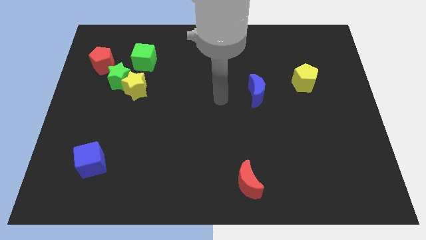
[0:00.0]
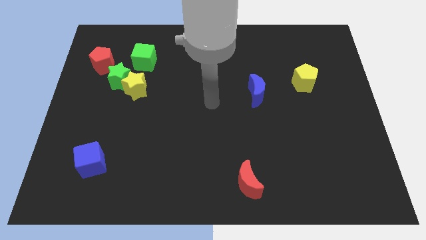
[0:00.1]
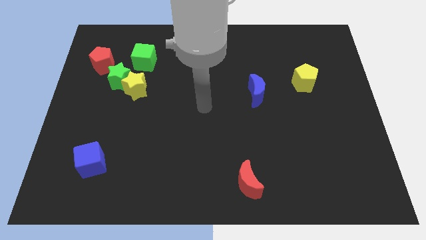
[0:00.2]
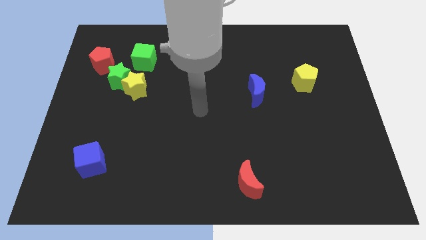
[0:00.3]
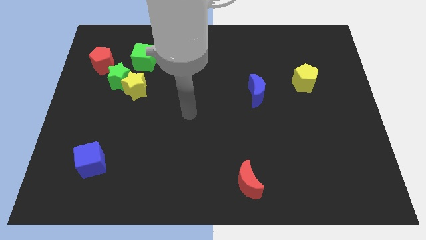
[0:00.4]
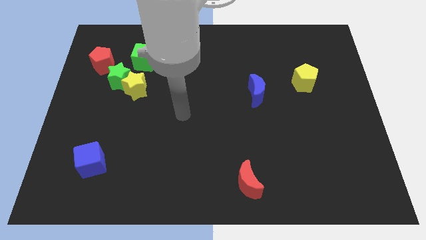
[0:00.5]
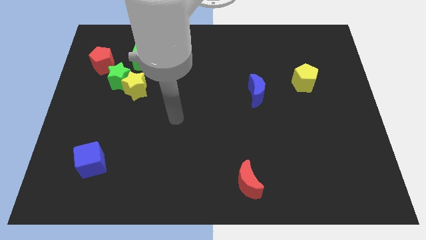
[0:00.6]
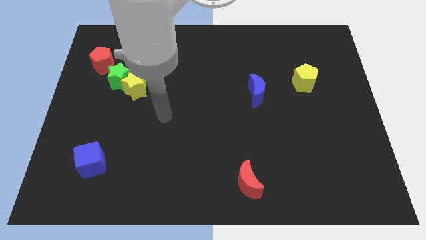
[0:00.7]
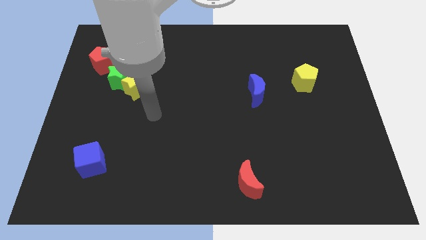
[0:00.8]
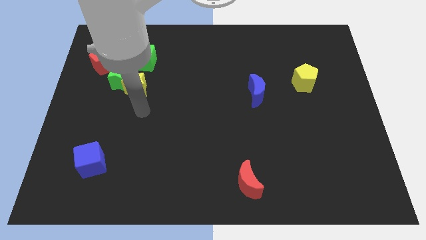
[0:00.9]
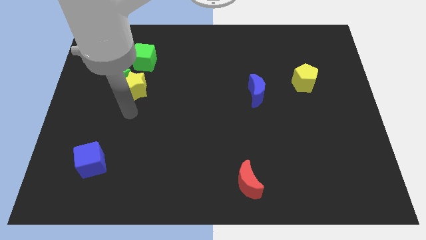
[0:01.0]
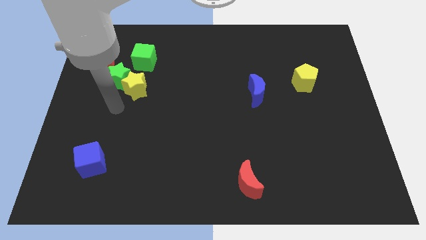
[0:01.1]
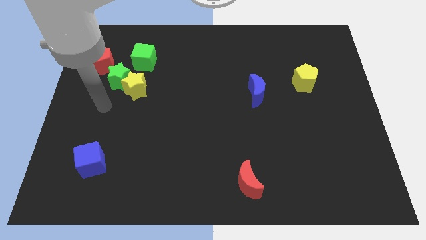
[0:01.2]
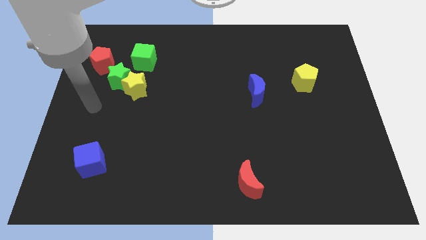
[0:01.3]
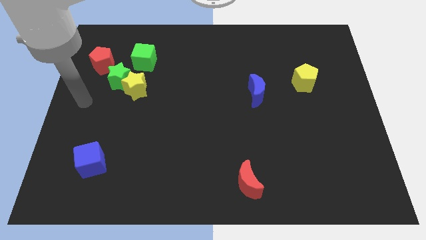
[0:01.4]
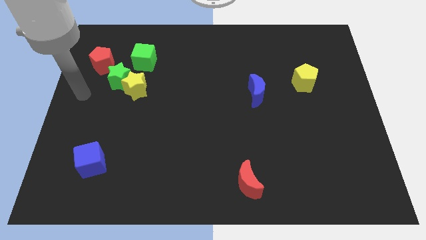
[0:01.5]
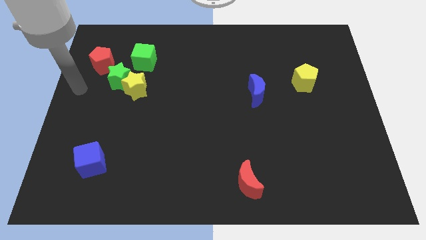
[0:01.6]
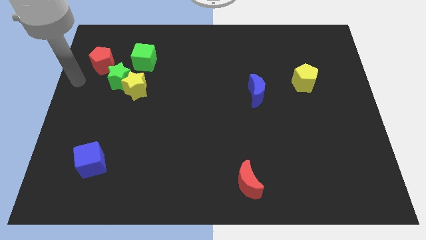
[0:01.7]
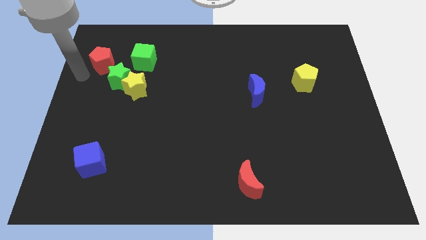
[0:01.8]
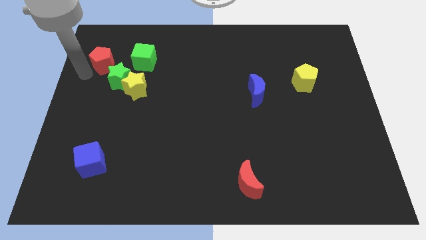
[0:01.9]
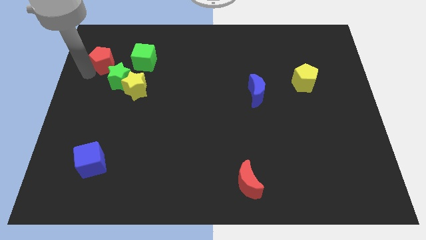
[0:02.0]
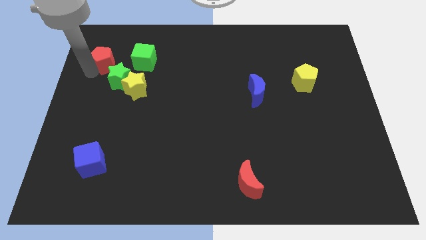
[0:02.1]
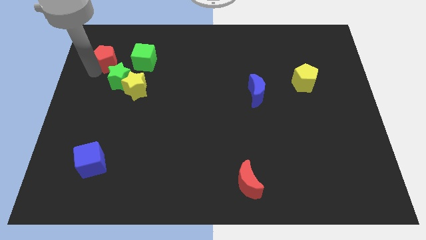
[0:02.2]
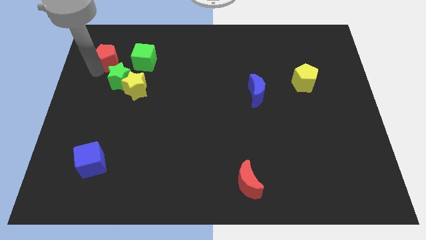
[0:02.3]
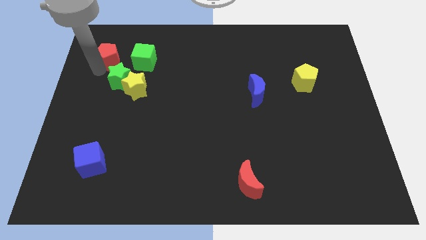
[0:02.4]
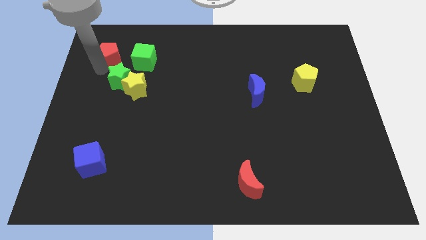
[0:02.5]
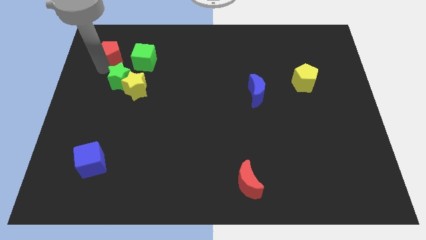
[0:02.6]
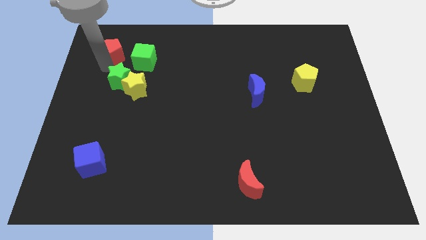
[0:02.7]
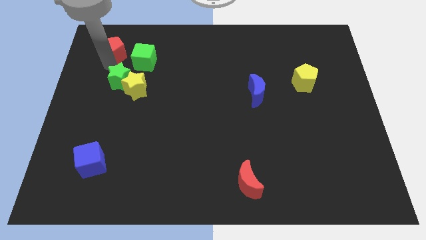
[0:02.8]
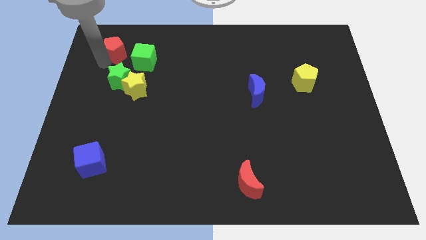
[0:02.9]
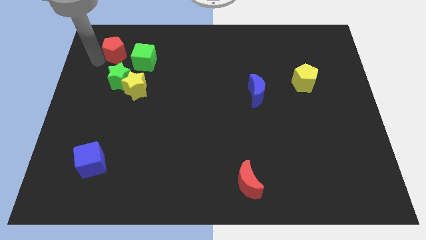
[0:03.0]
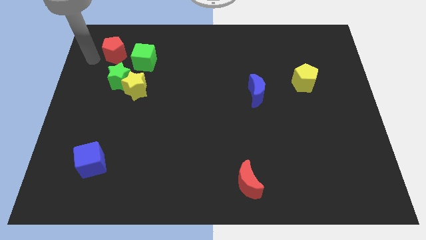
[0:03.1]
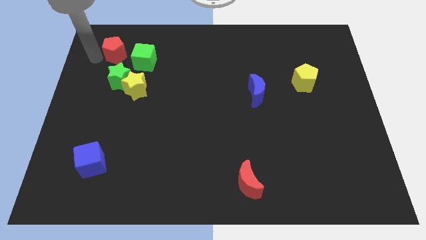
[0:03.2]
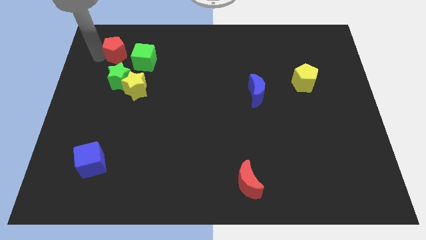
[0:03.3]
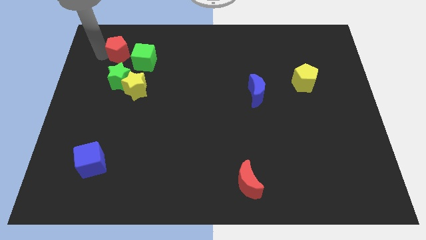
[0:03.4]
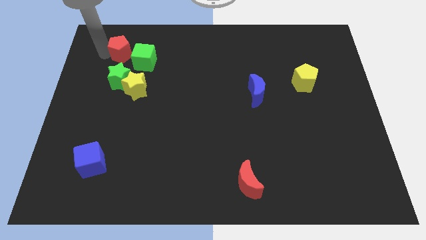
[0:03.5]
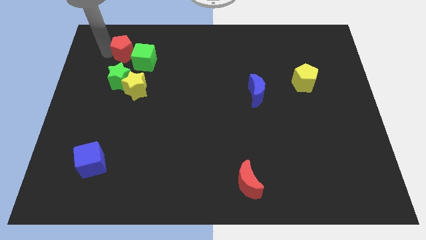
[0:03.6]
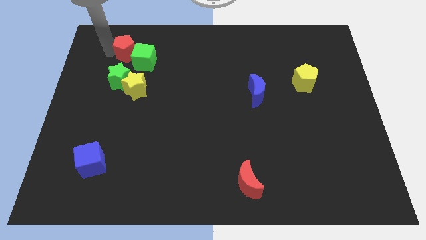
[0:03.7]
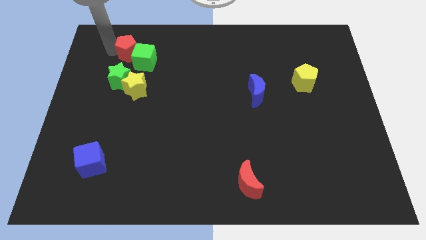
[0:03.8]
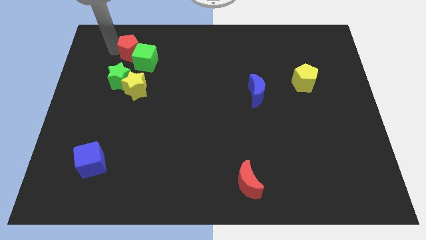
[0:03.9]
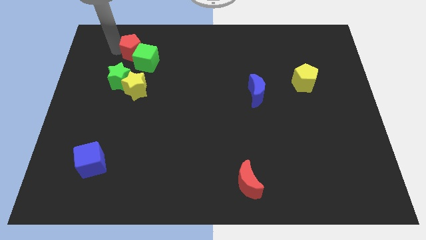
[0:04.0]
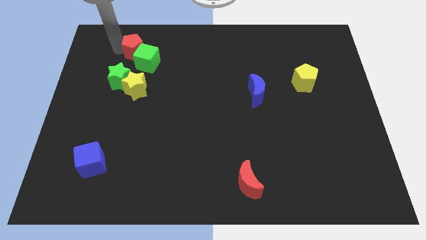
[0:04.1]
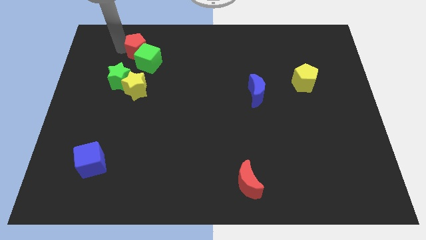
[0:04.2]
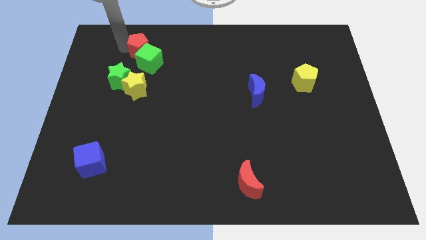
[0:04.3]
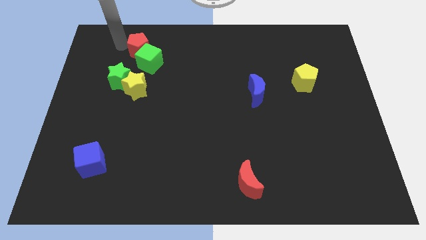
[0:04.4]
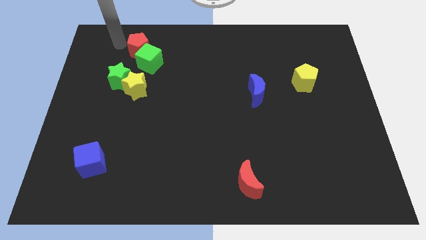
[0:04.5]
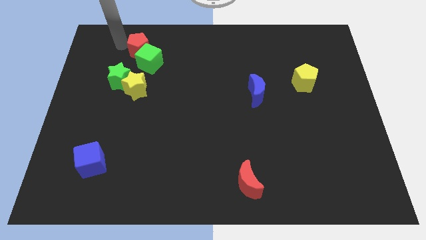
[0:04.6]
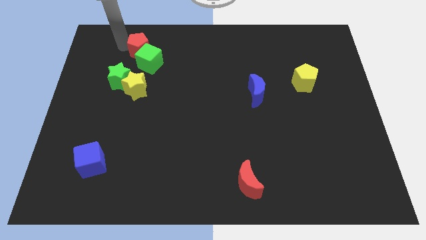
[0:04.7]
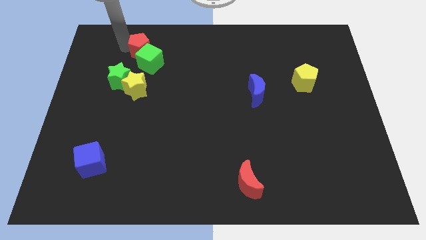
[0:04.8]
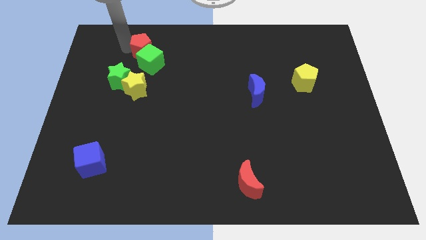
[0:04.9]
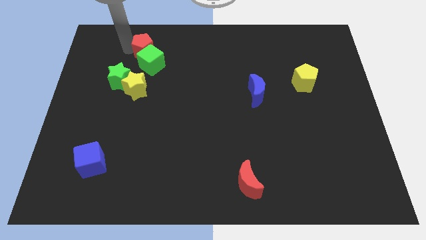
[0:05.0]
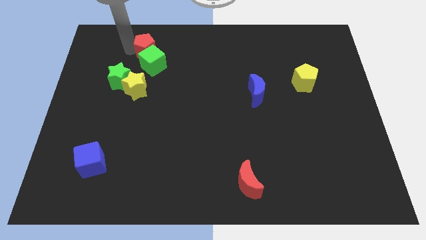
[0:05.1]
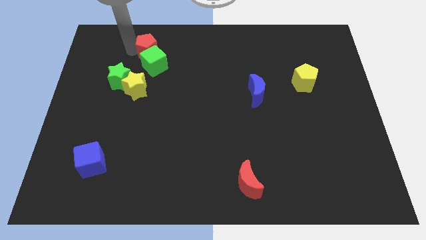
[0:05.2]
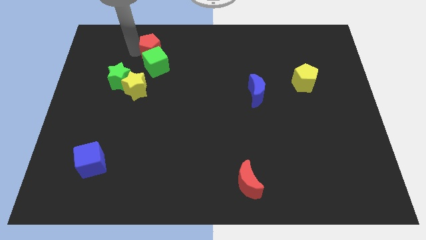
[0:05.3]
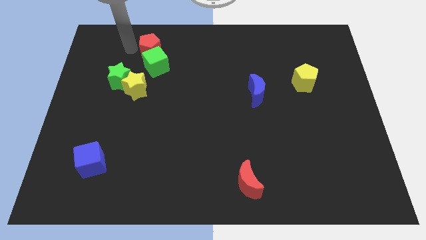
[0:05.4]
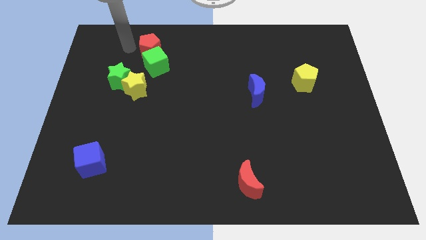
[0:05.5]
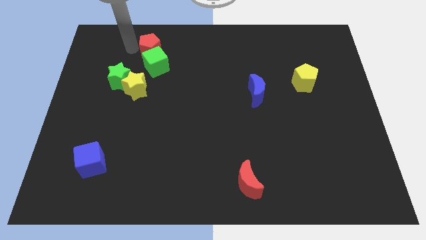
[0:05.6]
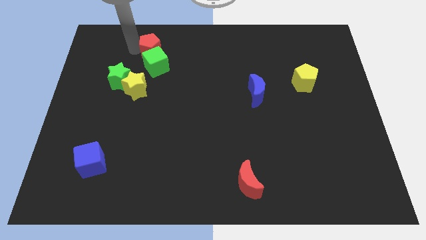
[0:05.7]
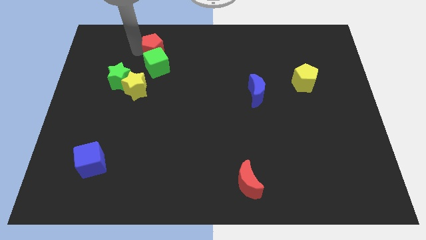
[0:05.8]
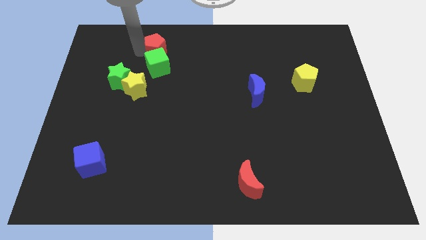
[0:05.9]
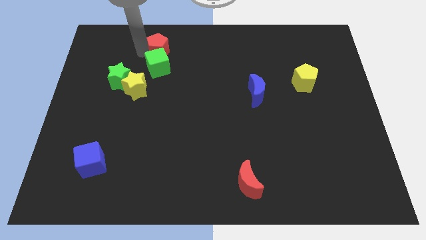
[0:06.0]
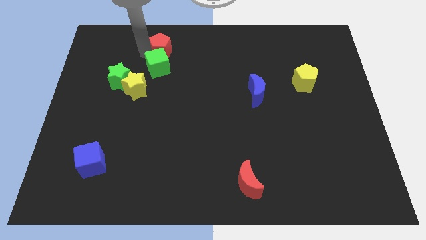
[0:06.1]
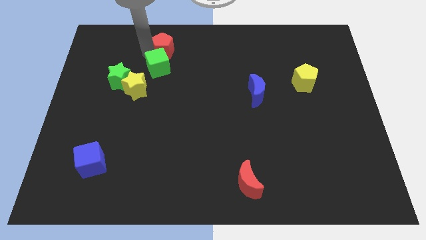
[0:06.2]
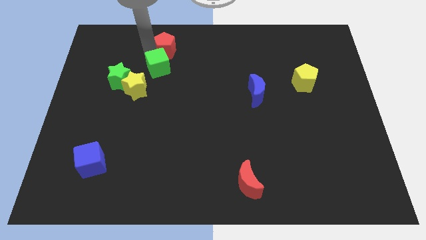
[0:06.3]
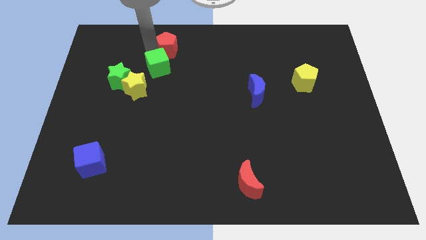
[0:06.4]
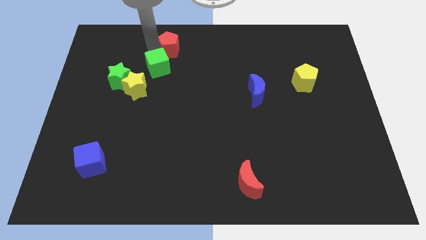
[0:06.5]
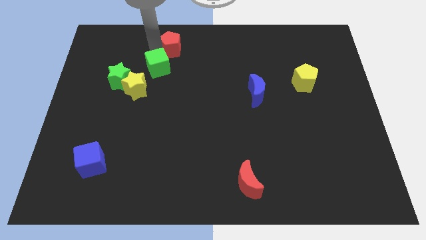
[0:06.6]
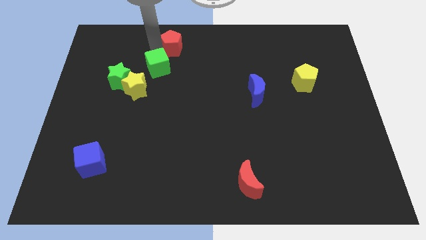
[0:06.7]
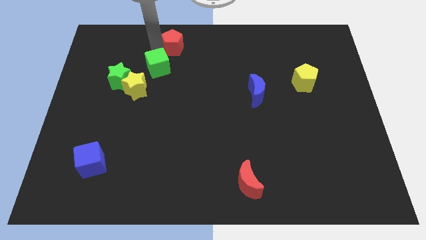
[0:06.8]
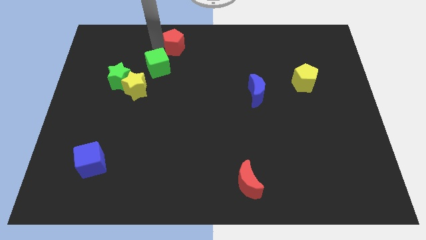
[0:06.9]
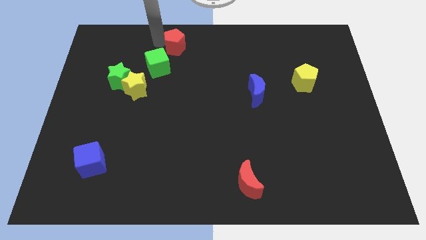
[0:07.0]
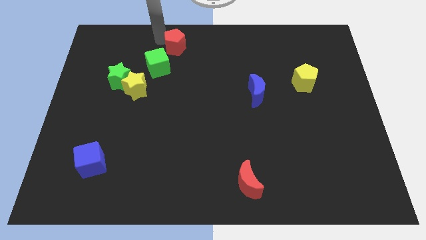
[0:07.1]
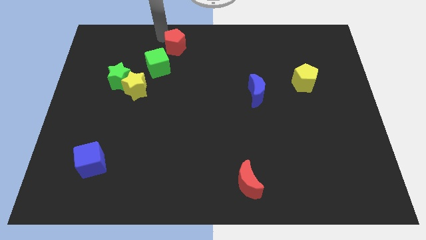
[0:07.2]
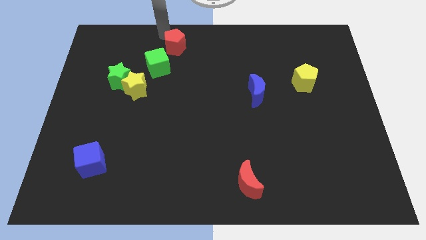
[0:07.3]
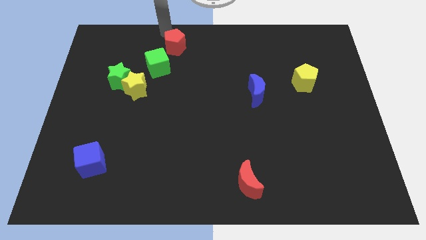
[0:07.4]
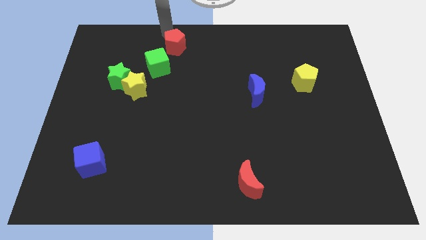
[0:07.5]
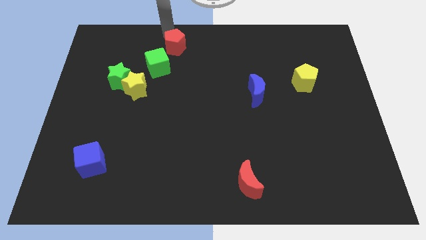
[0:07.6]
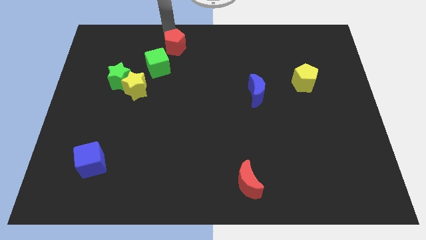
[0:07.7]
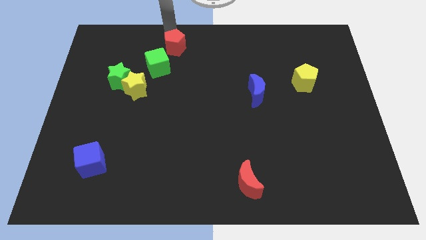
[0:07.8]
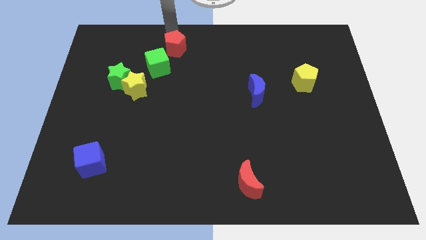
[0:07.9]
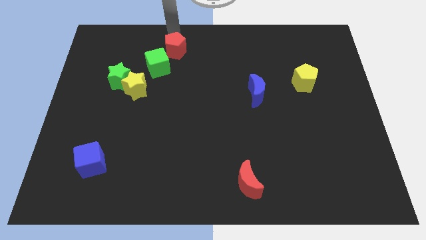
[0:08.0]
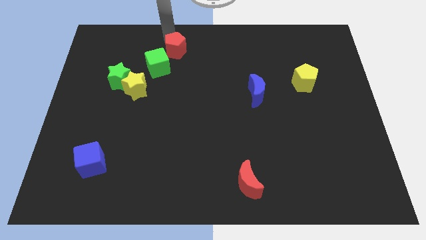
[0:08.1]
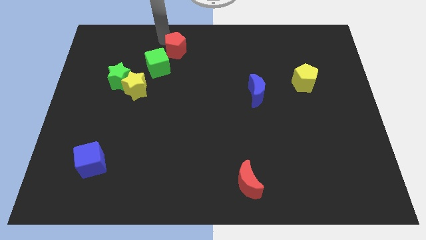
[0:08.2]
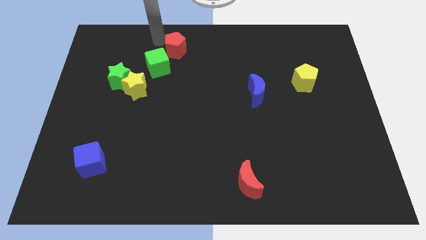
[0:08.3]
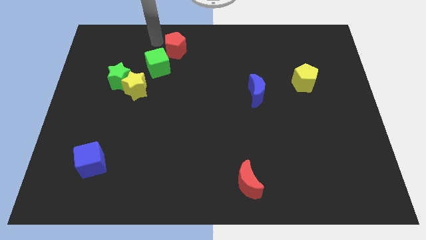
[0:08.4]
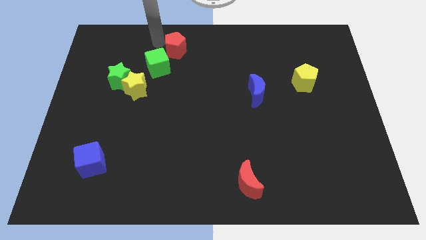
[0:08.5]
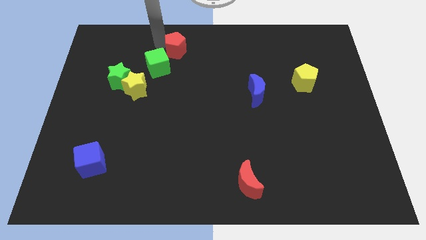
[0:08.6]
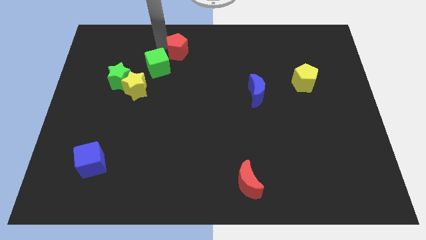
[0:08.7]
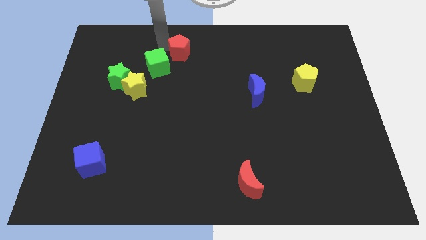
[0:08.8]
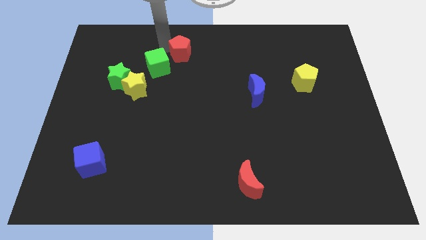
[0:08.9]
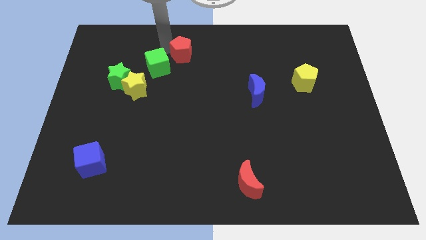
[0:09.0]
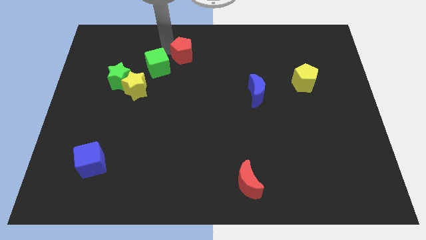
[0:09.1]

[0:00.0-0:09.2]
push the red pentagon right
